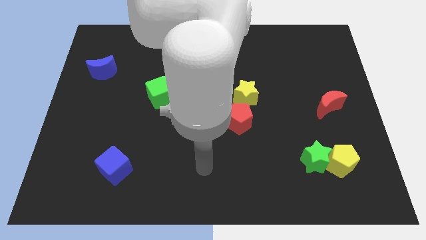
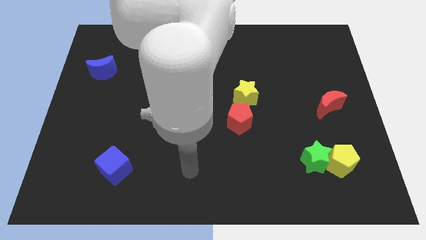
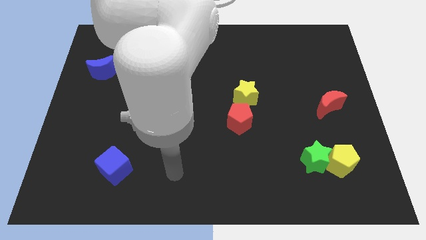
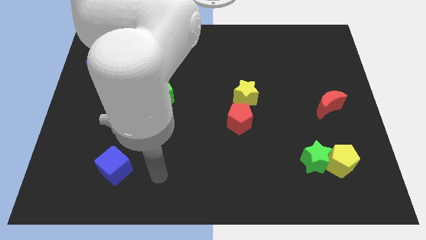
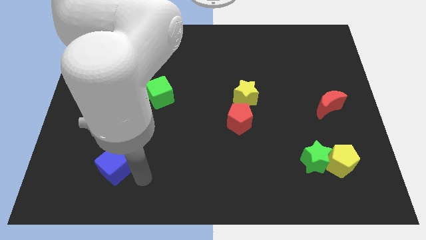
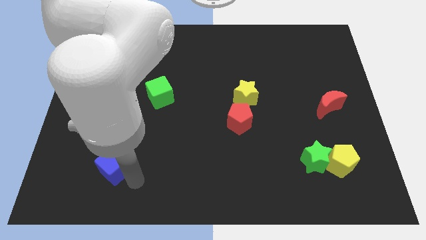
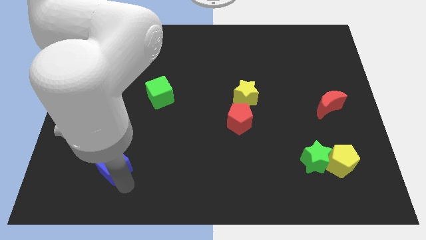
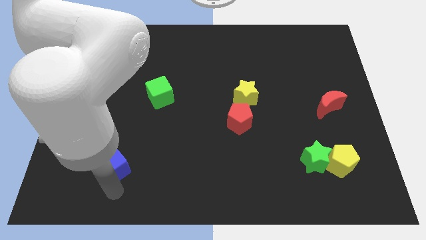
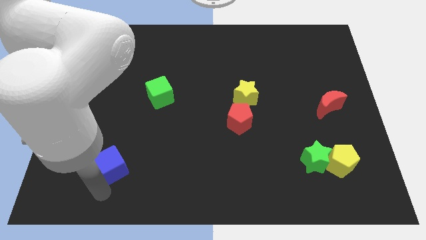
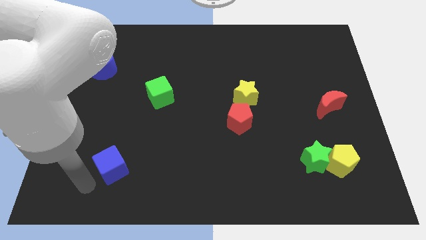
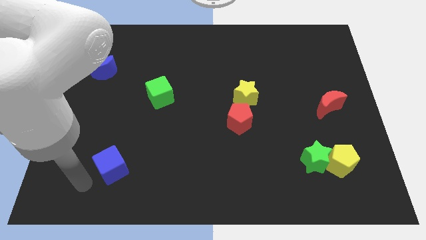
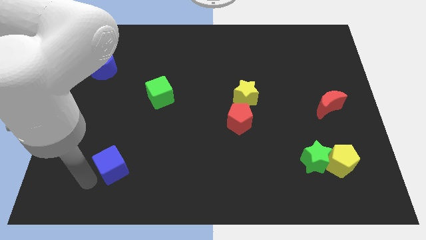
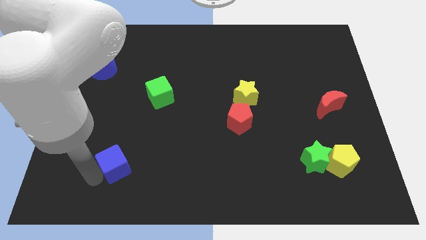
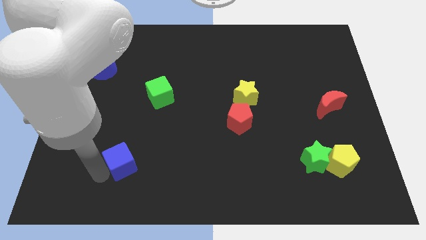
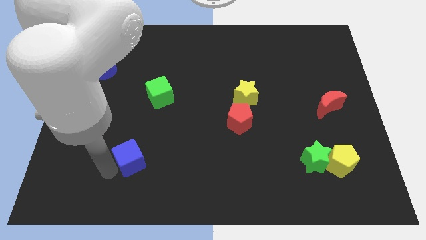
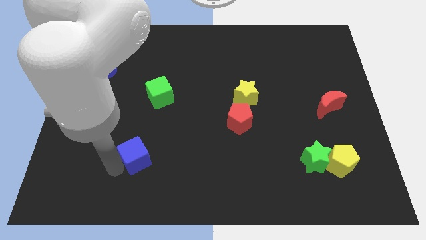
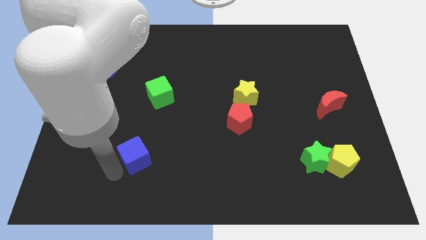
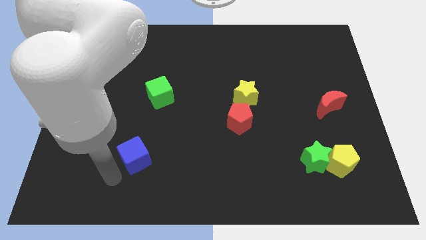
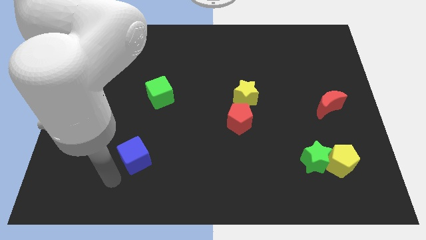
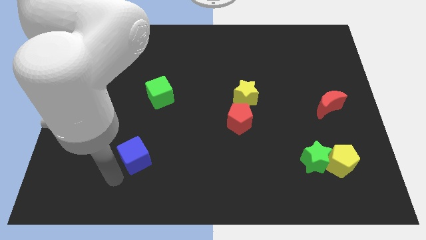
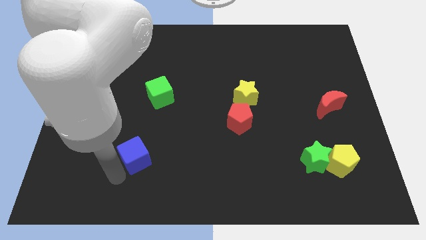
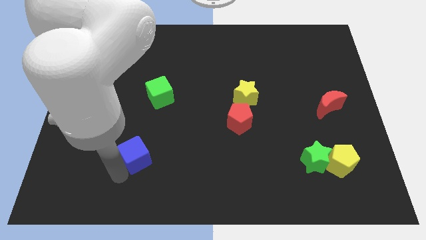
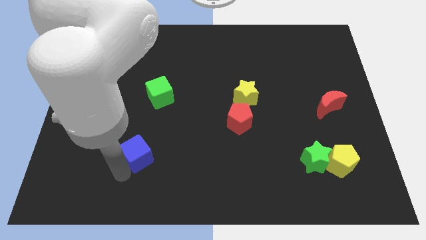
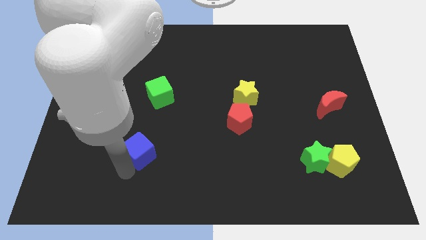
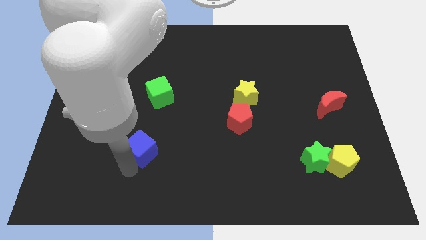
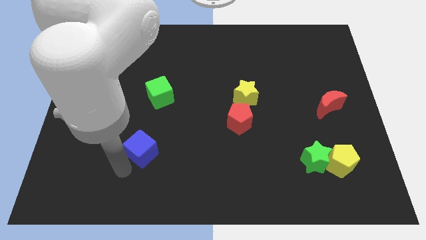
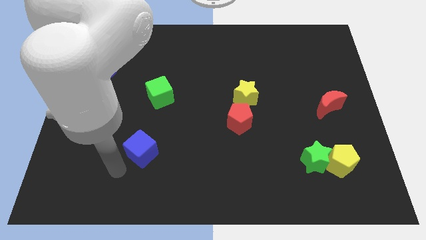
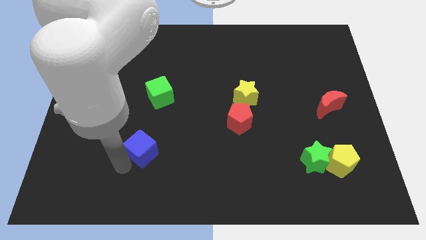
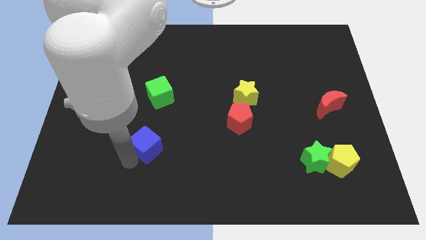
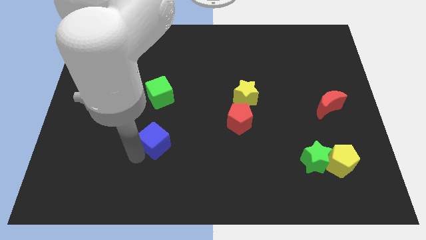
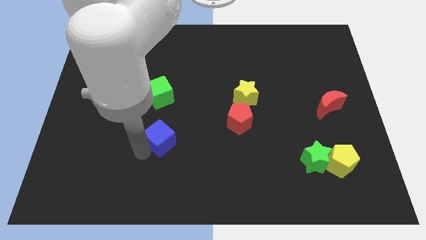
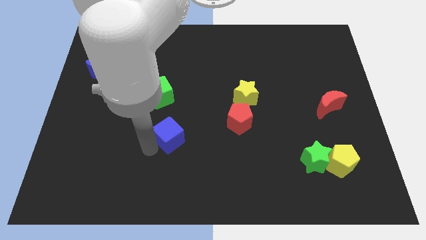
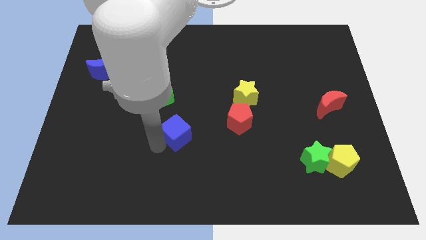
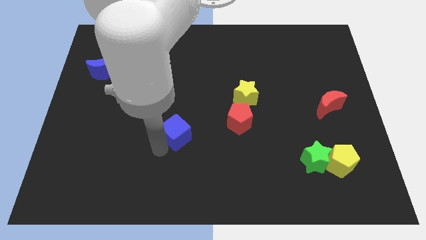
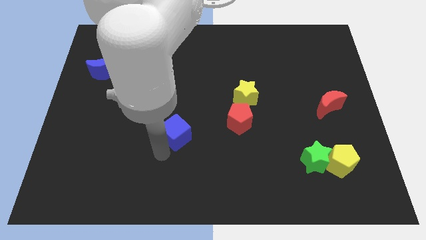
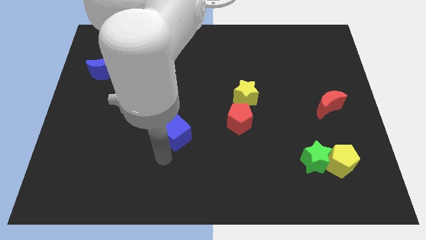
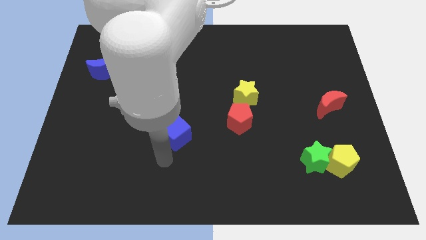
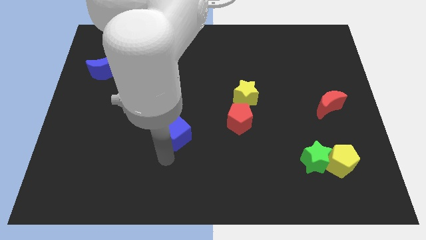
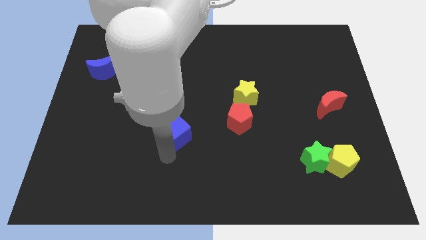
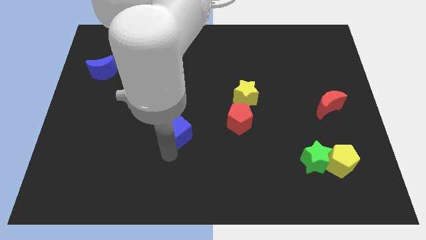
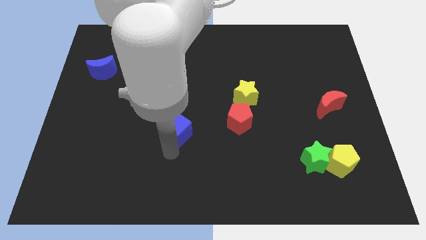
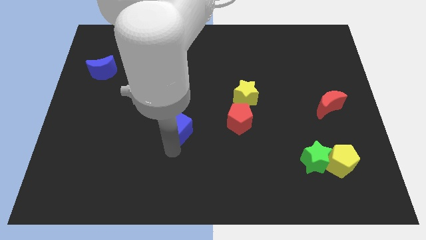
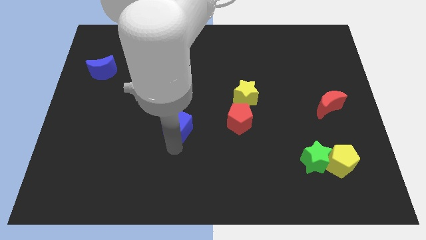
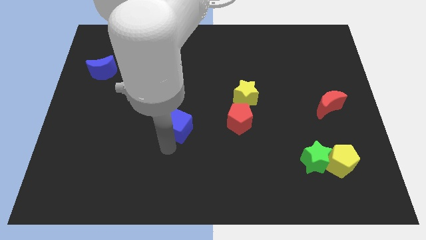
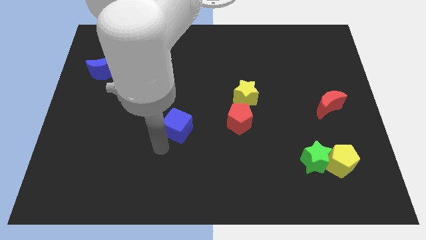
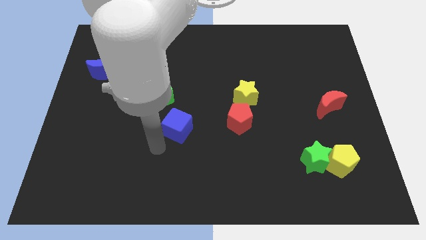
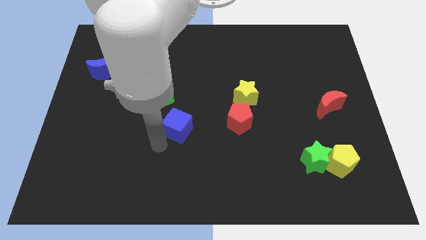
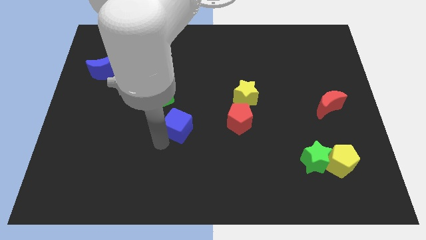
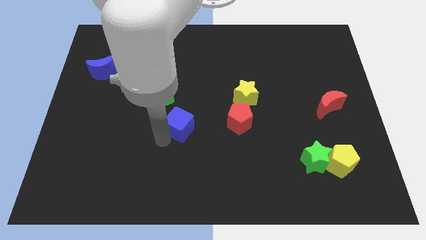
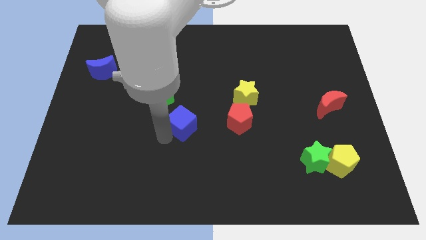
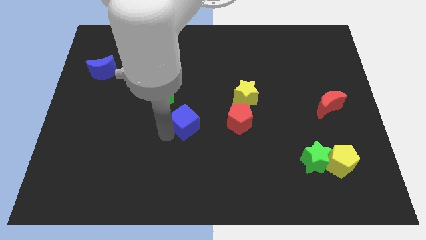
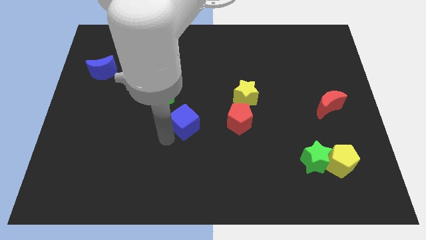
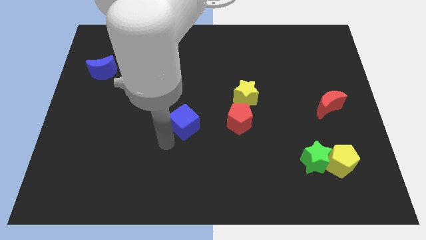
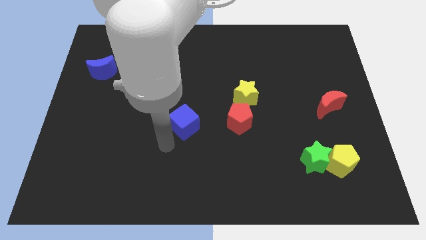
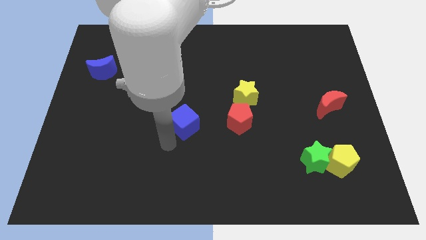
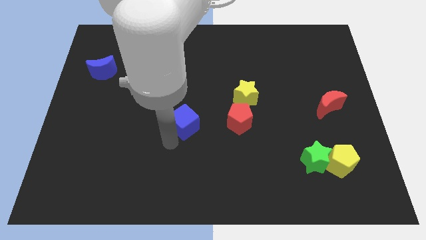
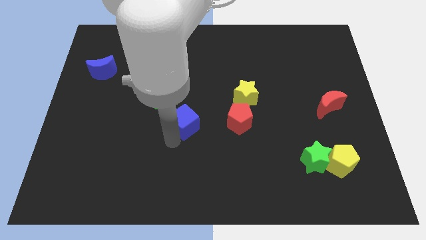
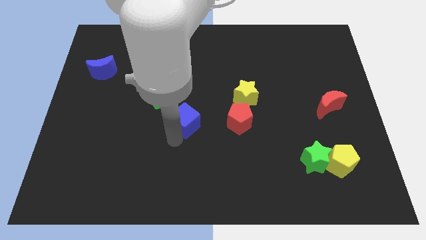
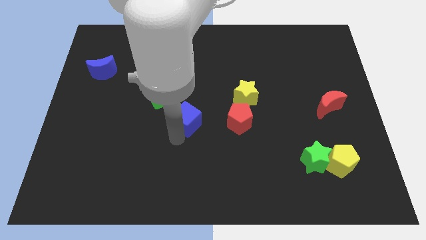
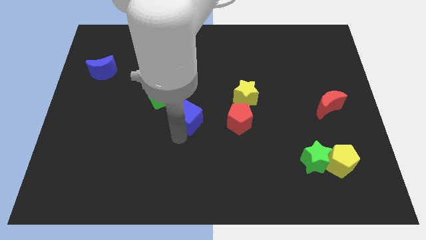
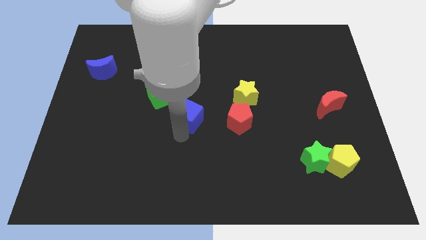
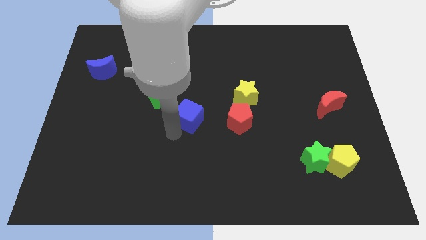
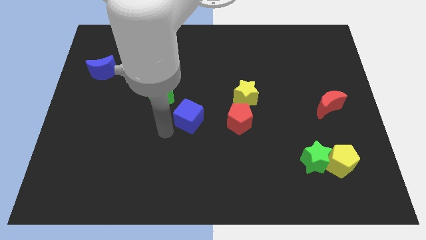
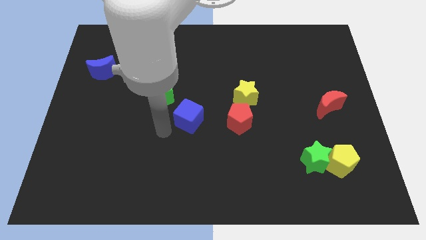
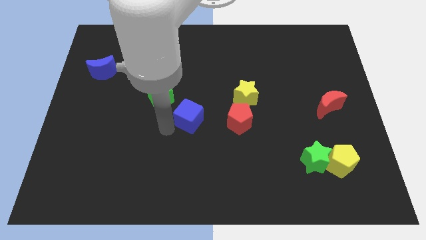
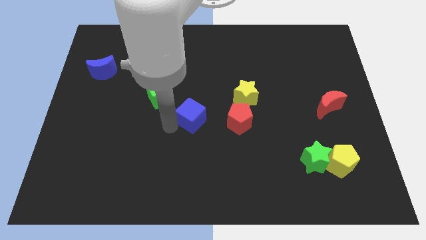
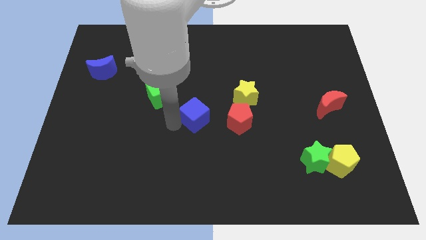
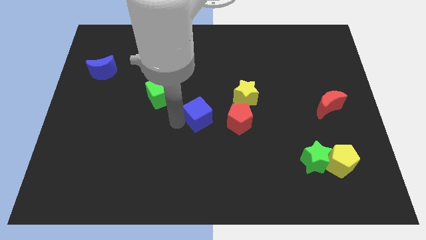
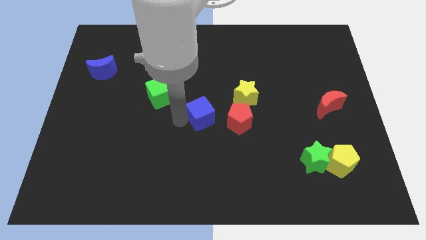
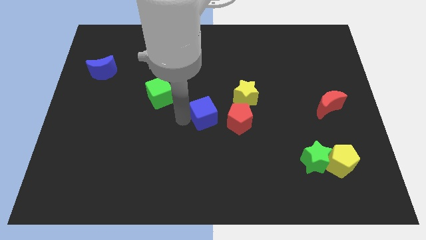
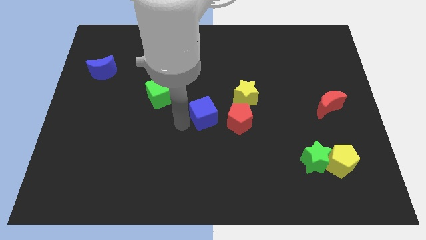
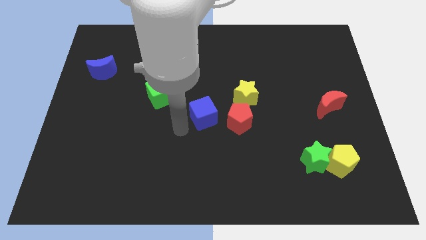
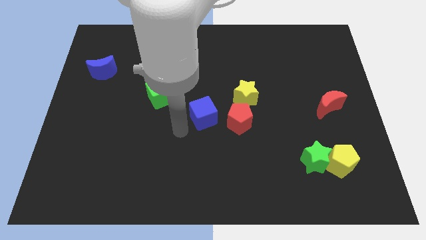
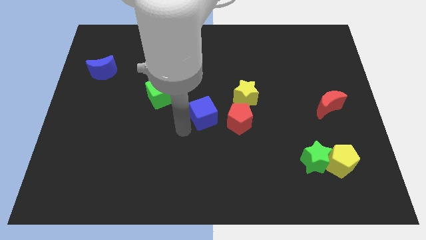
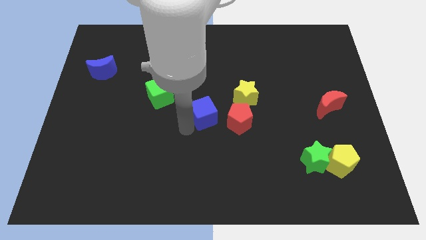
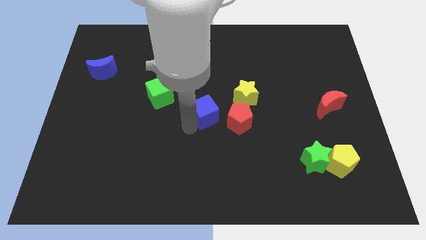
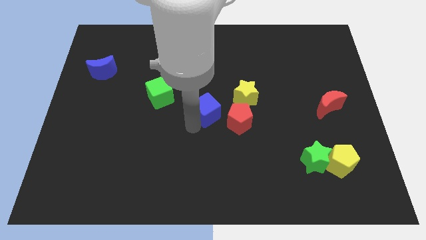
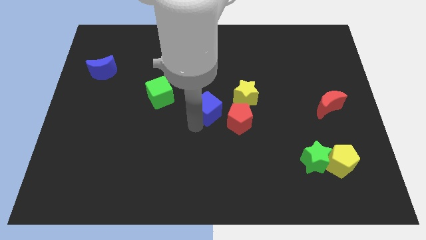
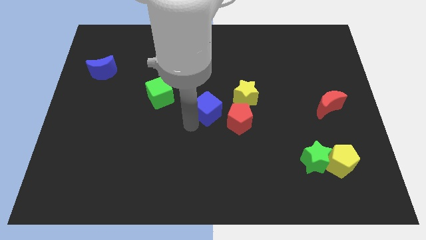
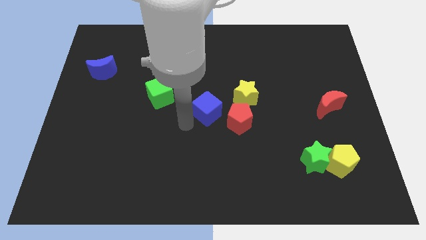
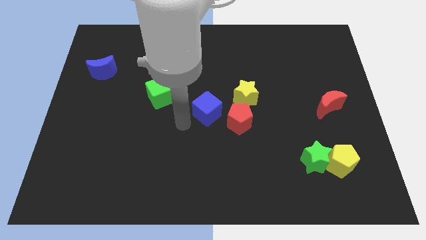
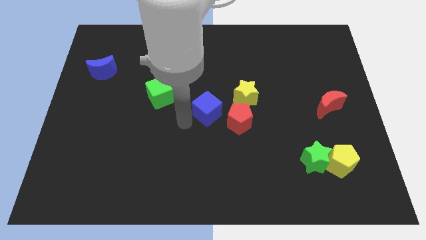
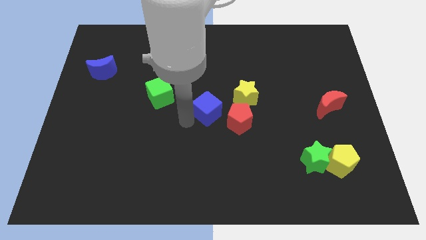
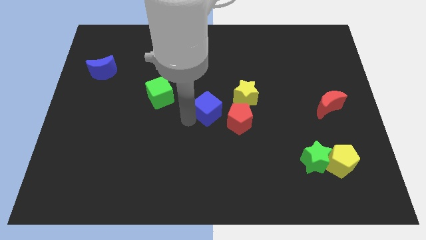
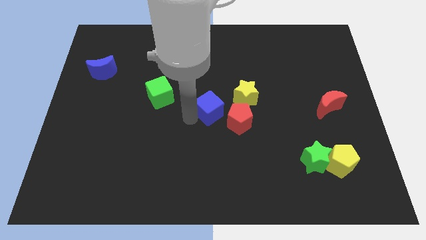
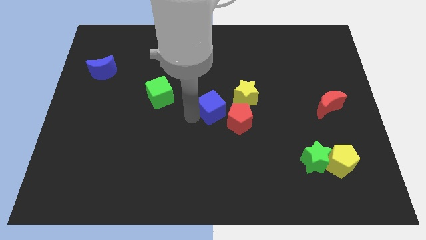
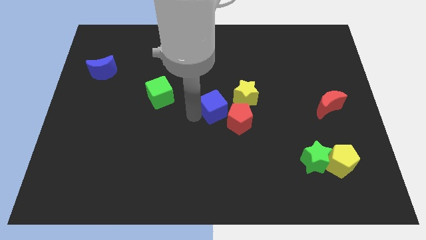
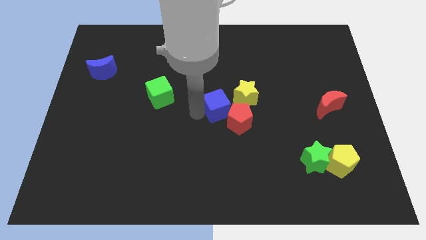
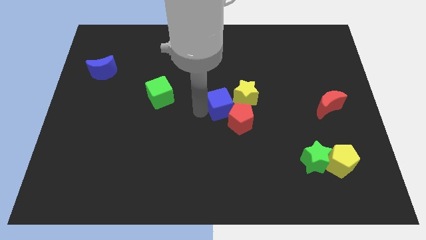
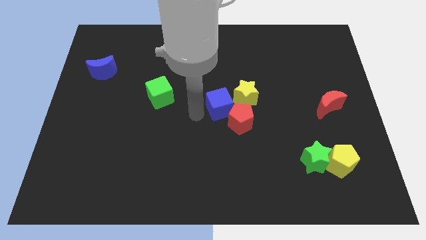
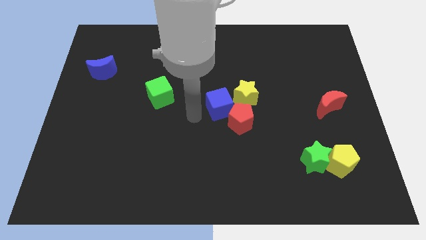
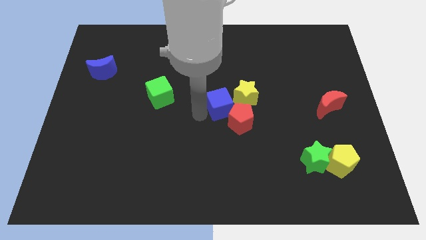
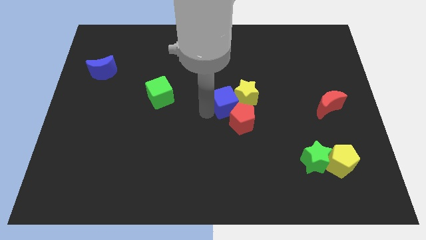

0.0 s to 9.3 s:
move the blue cube next to the yellow star
